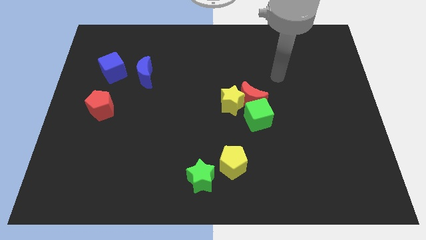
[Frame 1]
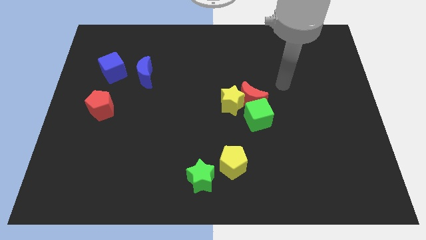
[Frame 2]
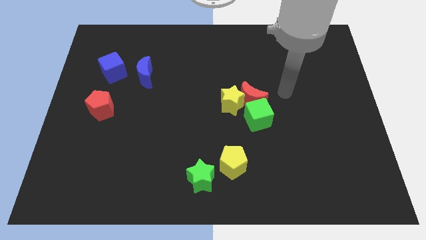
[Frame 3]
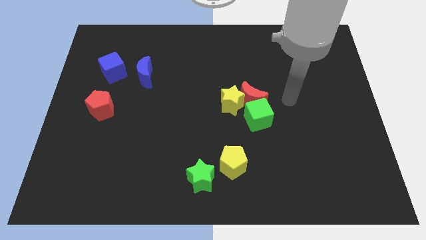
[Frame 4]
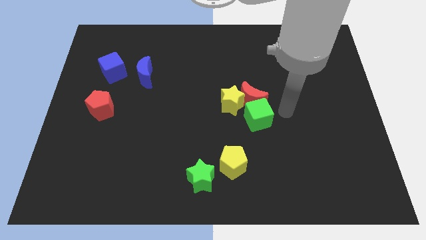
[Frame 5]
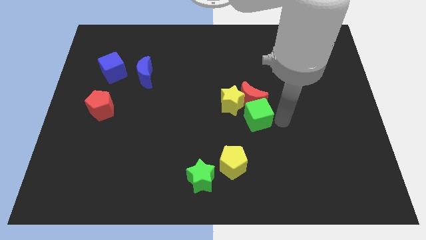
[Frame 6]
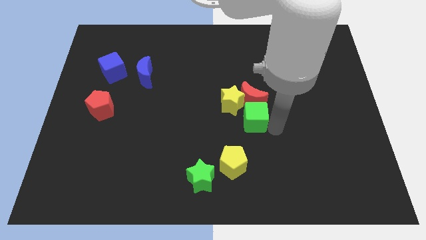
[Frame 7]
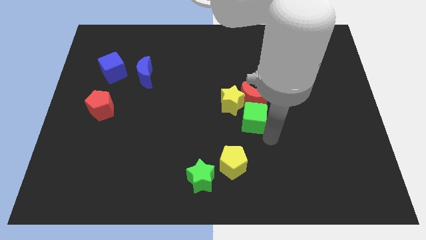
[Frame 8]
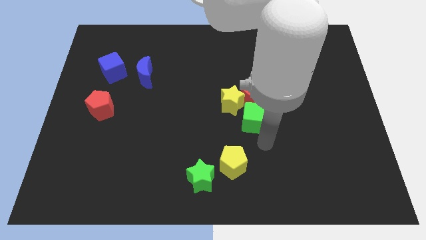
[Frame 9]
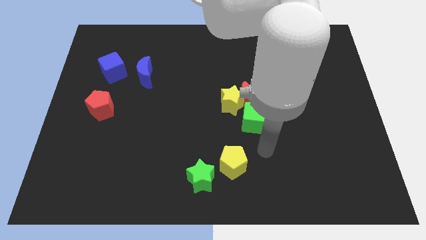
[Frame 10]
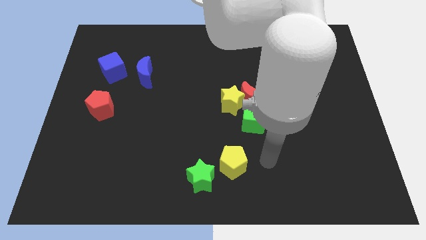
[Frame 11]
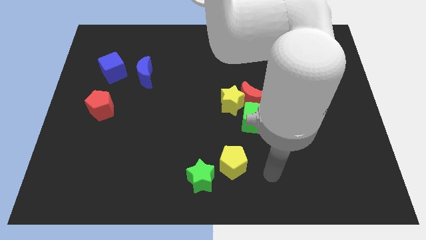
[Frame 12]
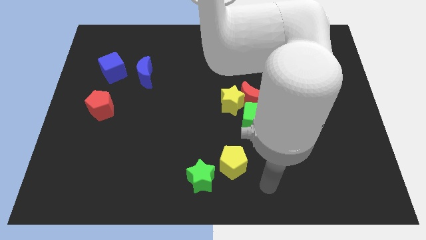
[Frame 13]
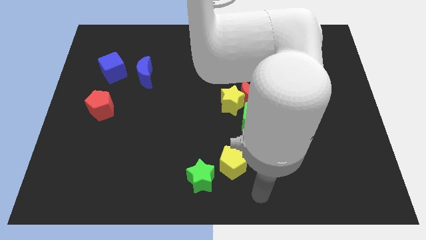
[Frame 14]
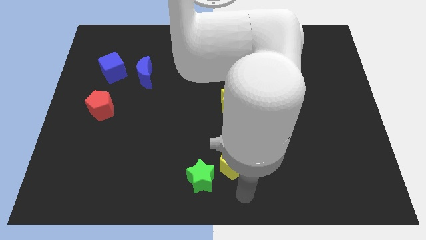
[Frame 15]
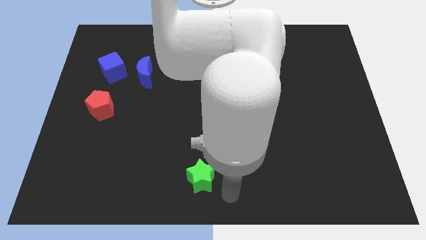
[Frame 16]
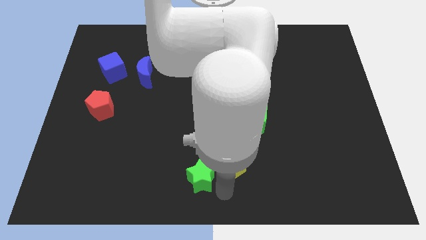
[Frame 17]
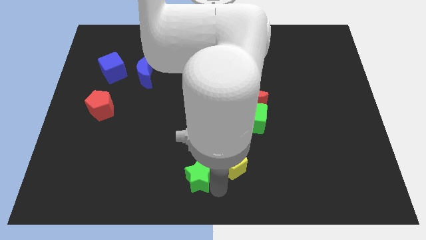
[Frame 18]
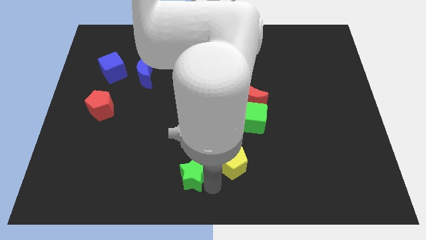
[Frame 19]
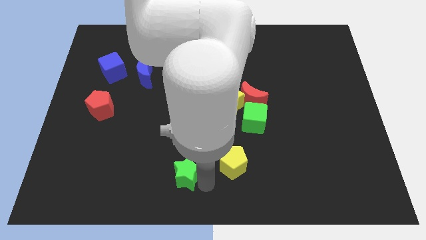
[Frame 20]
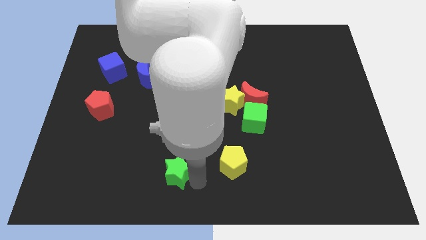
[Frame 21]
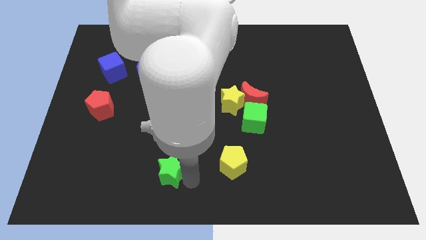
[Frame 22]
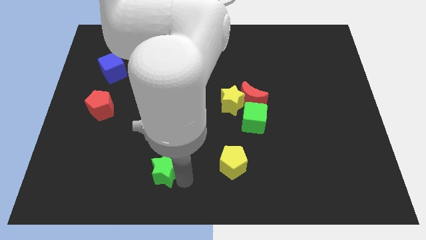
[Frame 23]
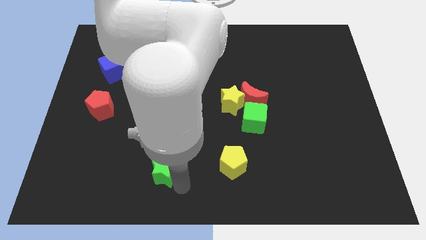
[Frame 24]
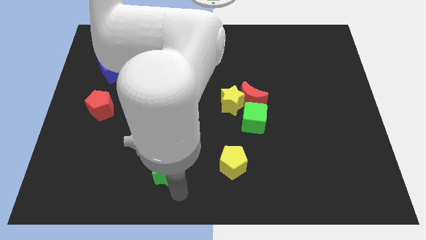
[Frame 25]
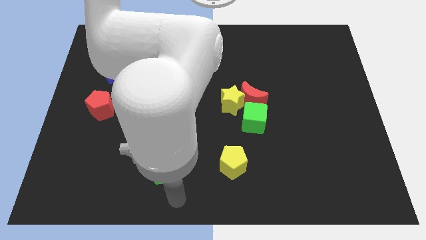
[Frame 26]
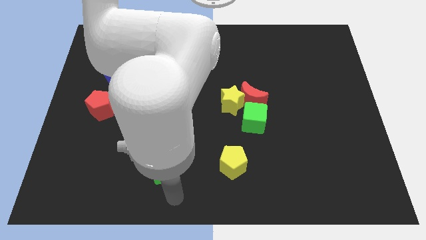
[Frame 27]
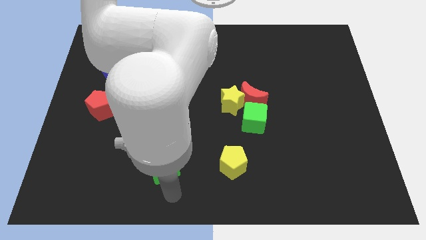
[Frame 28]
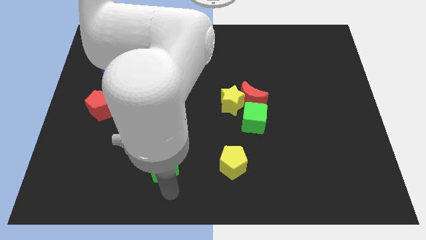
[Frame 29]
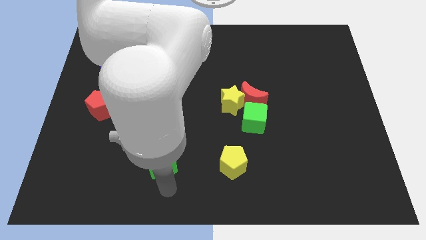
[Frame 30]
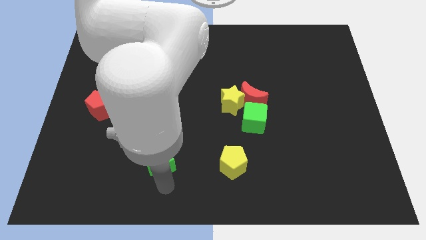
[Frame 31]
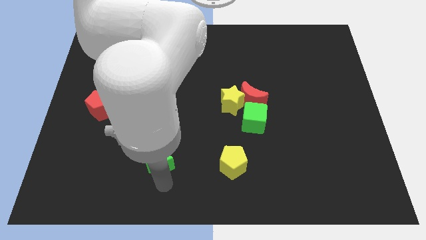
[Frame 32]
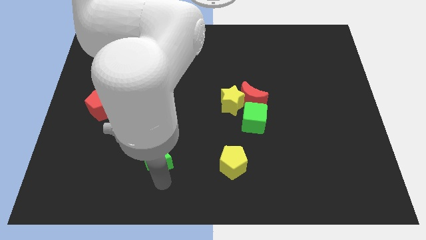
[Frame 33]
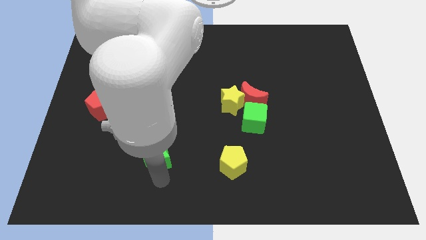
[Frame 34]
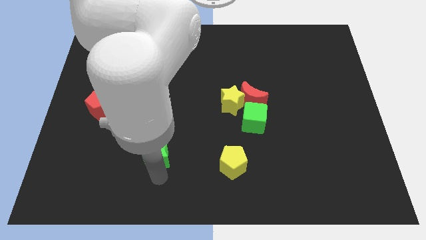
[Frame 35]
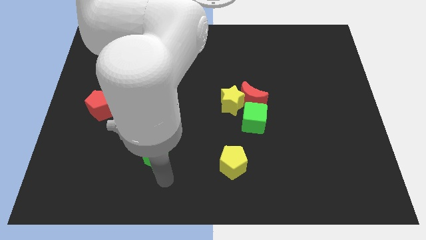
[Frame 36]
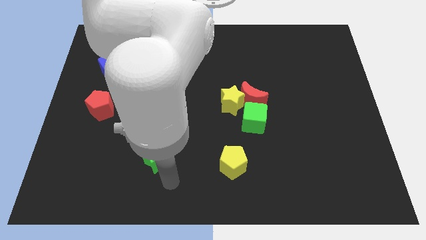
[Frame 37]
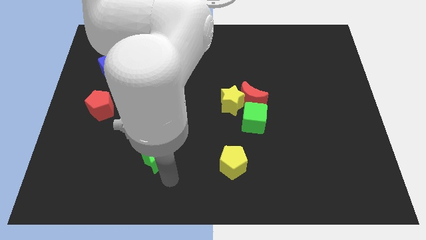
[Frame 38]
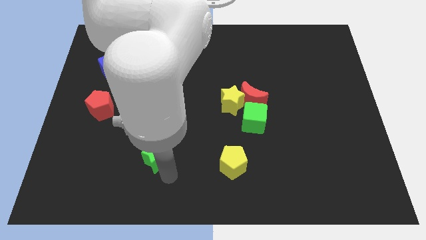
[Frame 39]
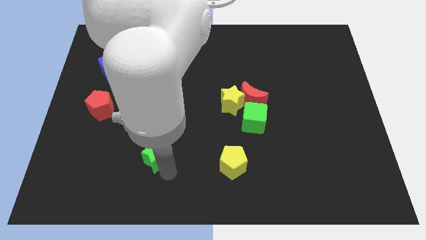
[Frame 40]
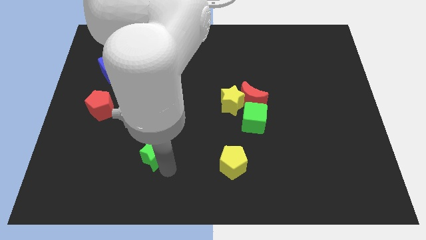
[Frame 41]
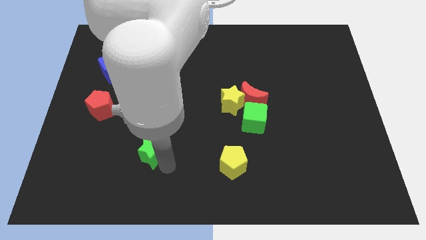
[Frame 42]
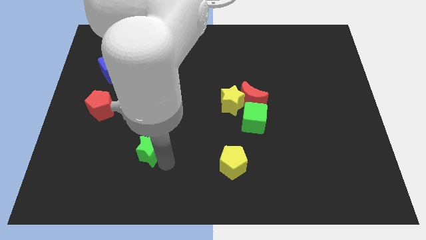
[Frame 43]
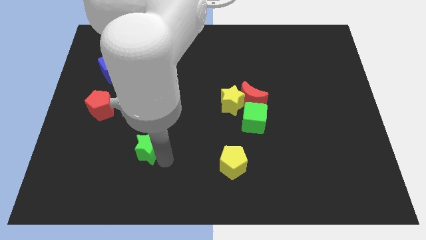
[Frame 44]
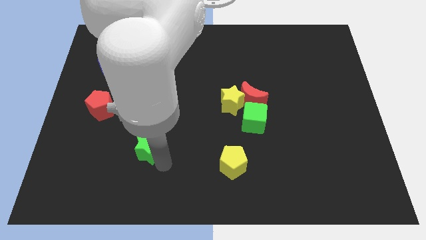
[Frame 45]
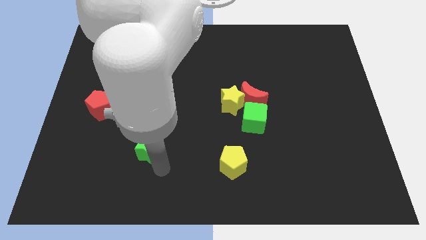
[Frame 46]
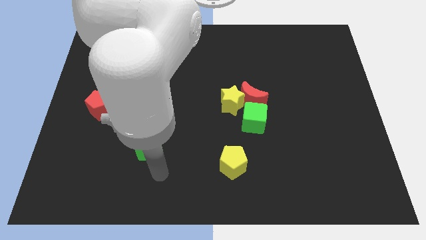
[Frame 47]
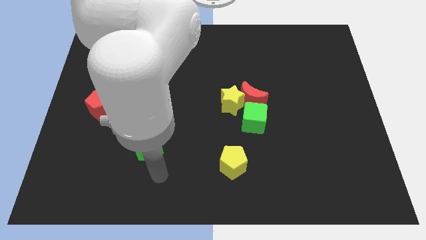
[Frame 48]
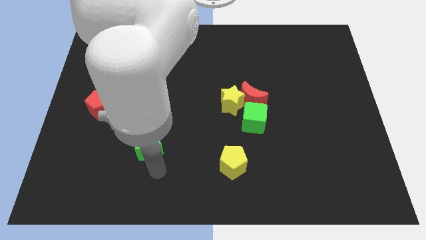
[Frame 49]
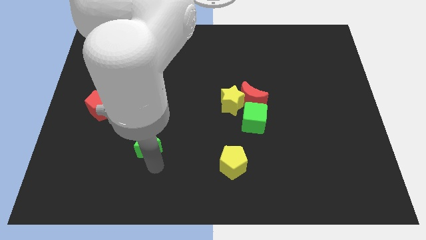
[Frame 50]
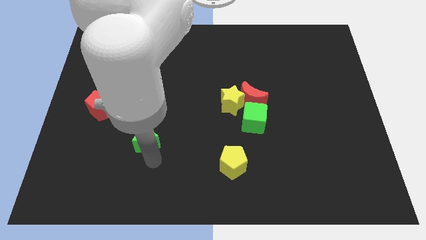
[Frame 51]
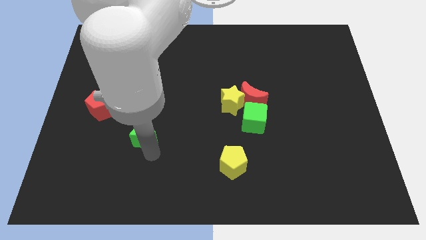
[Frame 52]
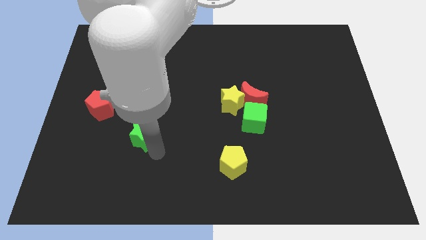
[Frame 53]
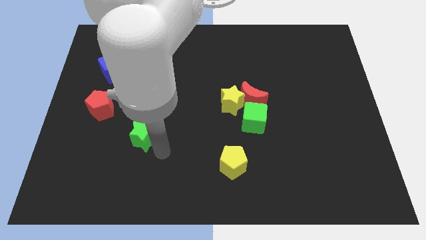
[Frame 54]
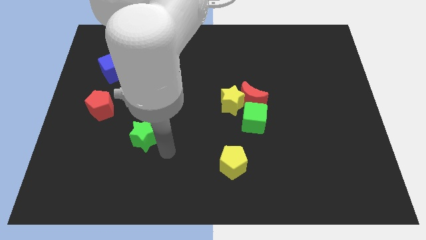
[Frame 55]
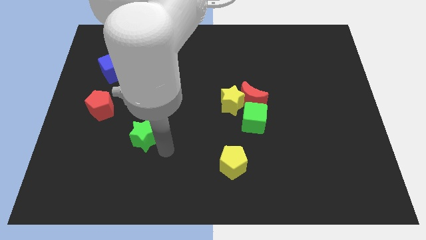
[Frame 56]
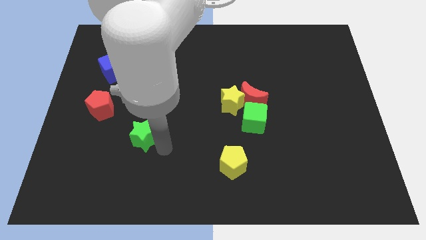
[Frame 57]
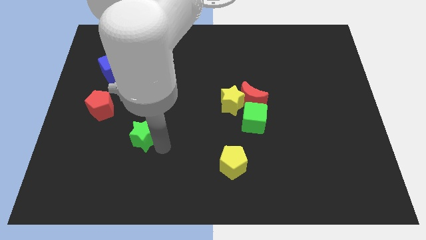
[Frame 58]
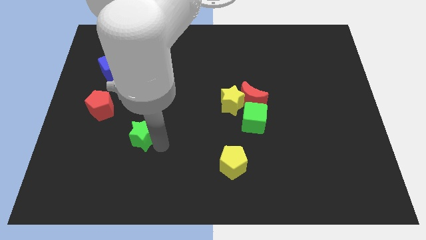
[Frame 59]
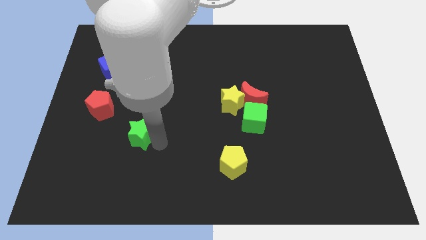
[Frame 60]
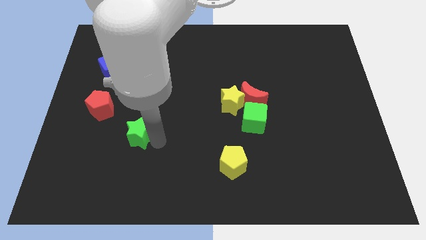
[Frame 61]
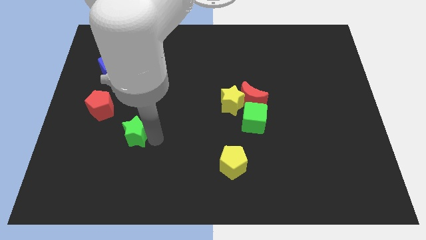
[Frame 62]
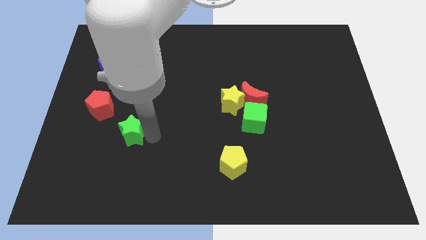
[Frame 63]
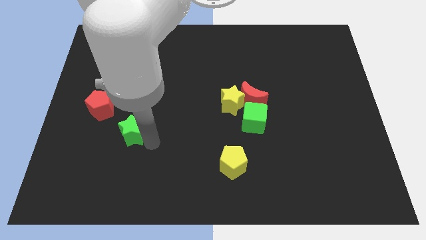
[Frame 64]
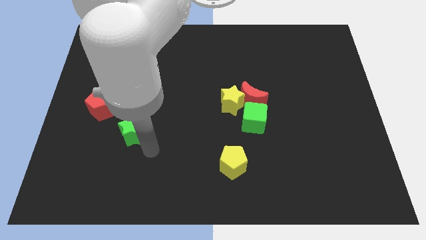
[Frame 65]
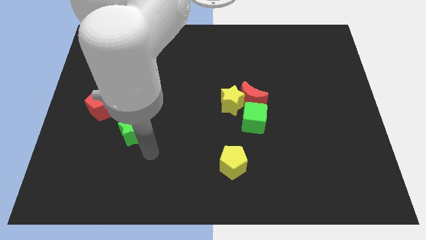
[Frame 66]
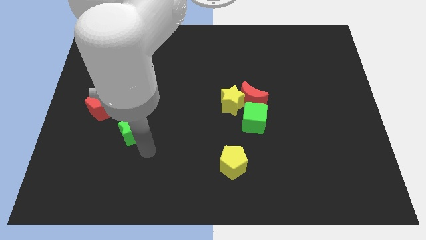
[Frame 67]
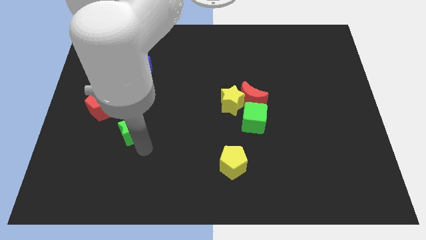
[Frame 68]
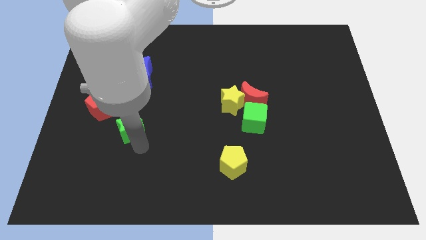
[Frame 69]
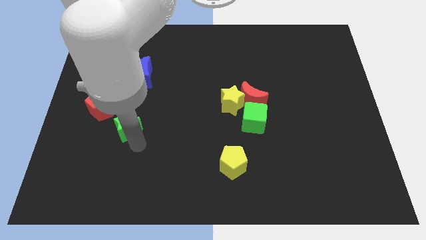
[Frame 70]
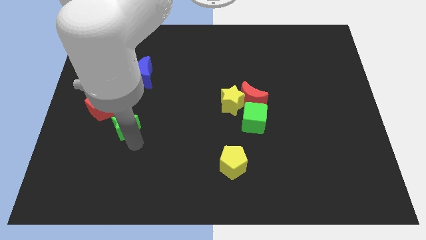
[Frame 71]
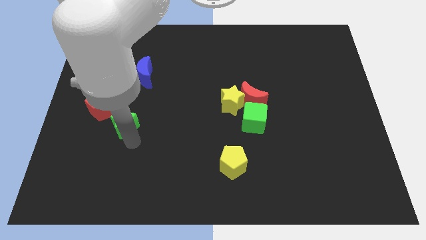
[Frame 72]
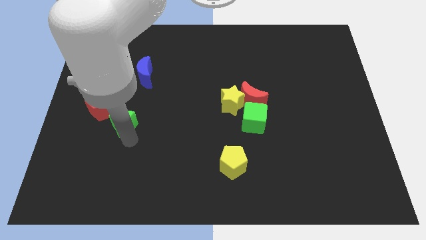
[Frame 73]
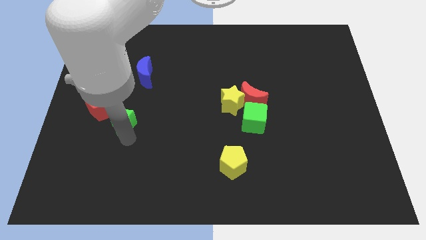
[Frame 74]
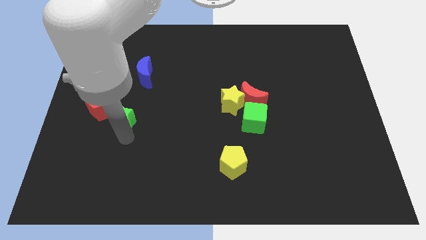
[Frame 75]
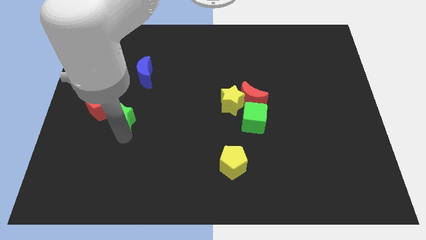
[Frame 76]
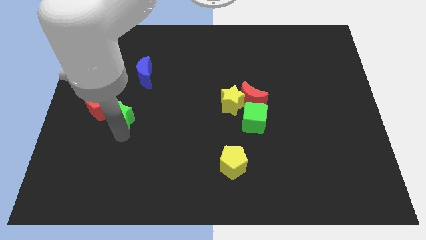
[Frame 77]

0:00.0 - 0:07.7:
put the green star towards the red pentagon
